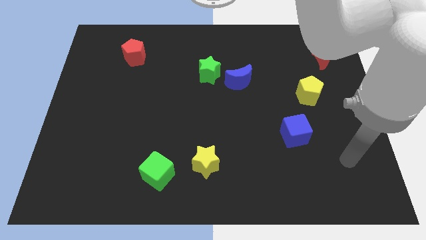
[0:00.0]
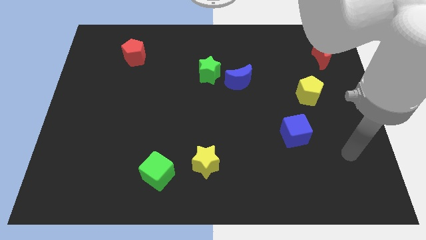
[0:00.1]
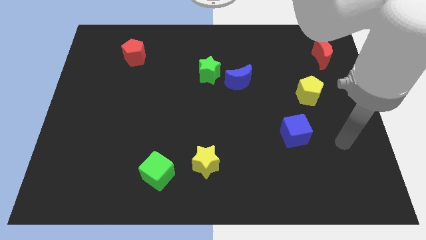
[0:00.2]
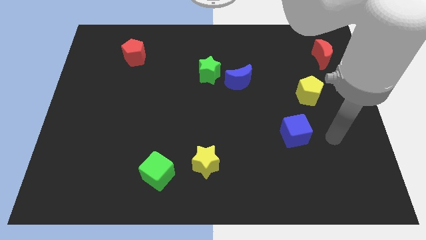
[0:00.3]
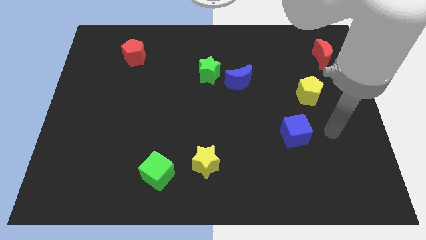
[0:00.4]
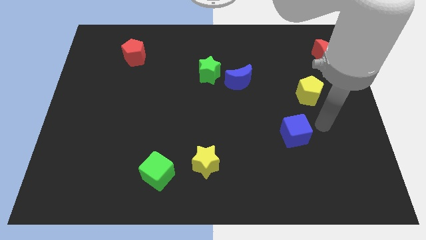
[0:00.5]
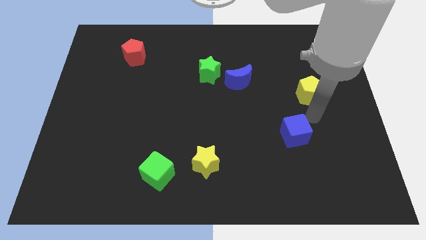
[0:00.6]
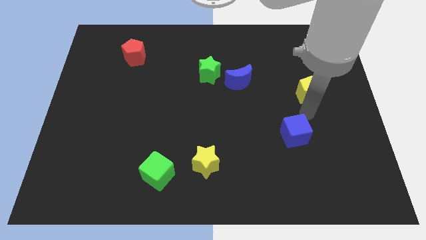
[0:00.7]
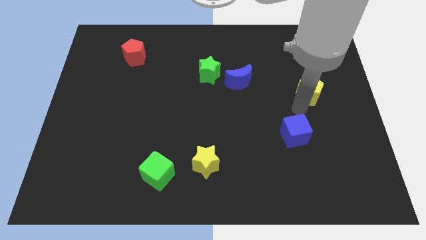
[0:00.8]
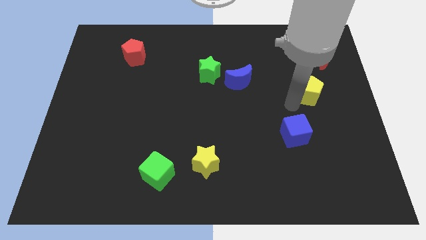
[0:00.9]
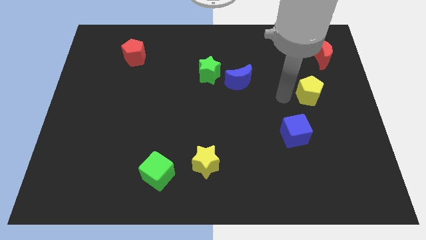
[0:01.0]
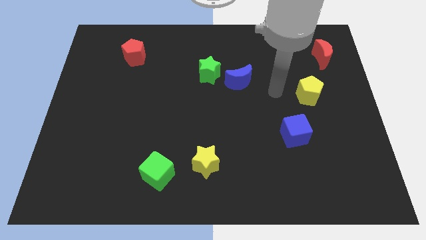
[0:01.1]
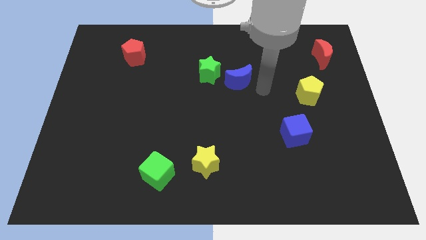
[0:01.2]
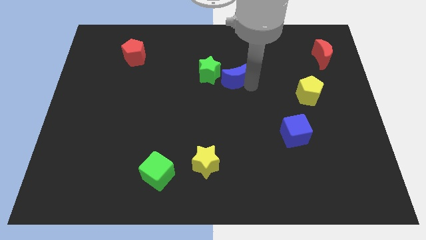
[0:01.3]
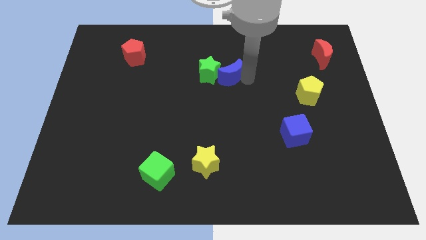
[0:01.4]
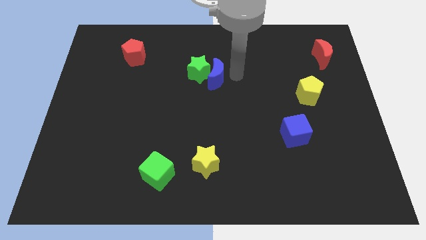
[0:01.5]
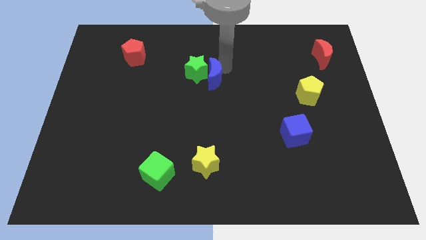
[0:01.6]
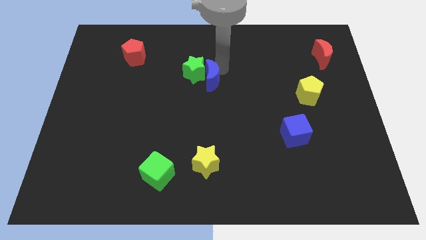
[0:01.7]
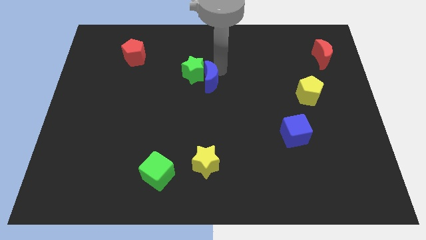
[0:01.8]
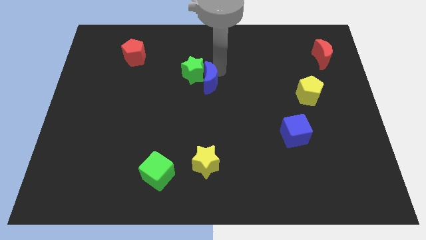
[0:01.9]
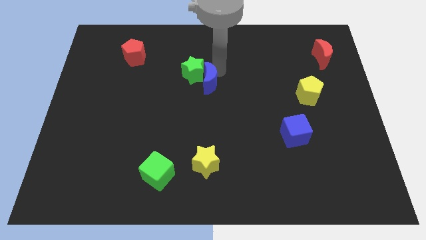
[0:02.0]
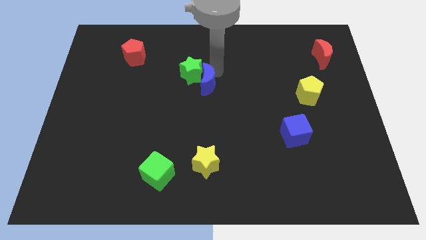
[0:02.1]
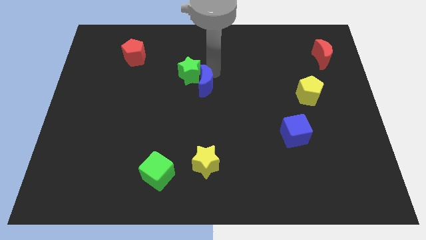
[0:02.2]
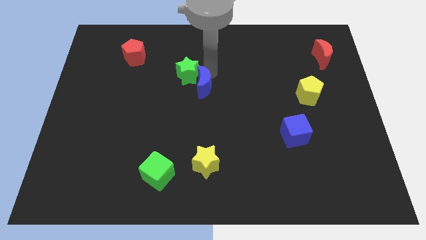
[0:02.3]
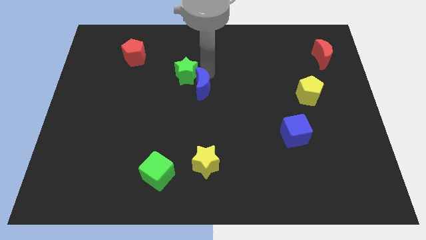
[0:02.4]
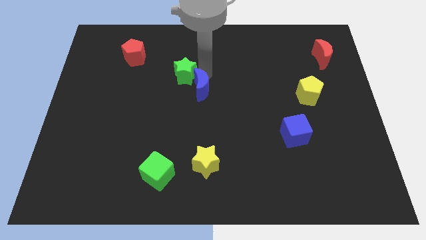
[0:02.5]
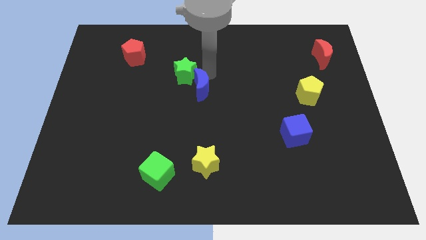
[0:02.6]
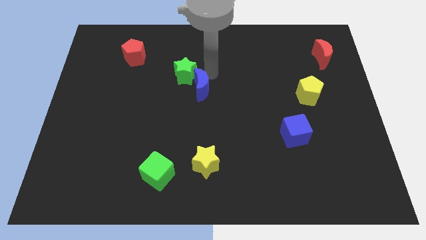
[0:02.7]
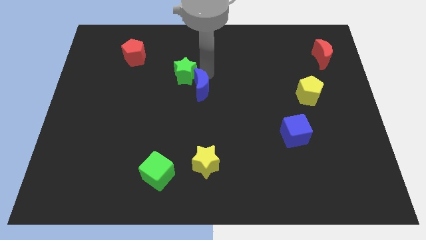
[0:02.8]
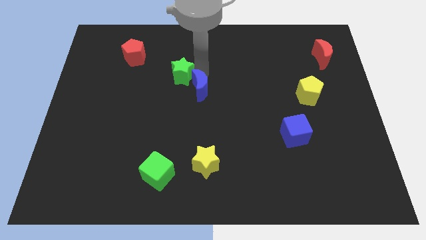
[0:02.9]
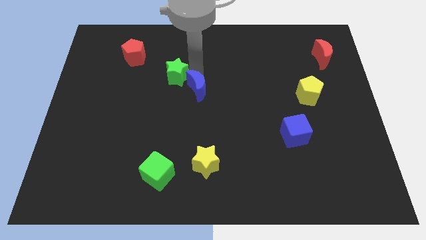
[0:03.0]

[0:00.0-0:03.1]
move the green star a bit left

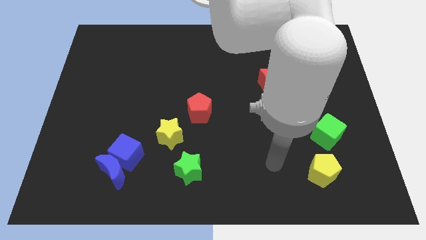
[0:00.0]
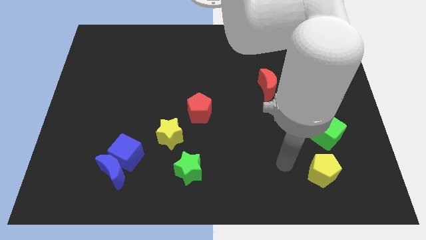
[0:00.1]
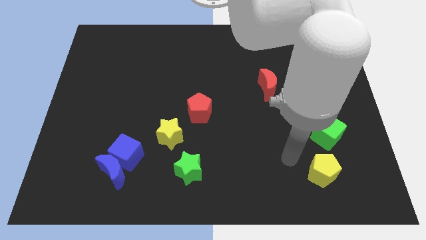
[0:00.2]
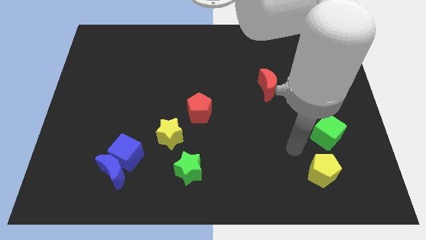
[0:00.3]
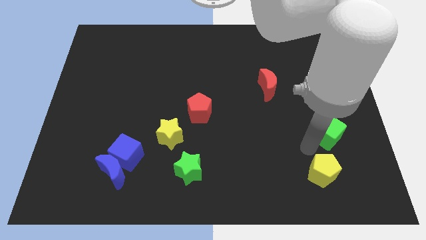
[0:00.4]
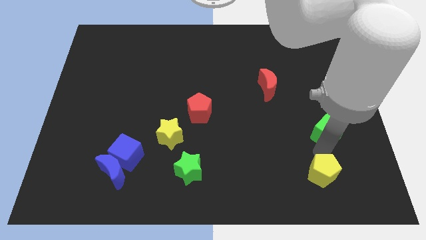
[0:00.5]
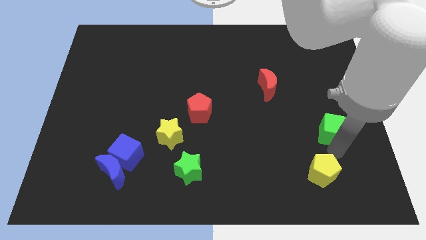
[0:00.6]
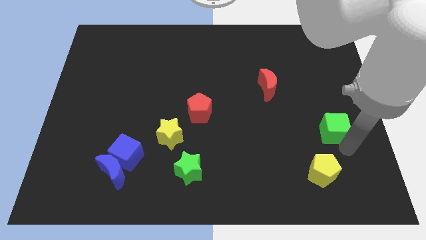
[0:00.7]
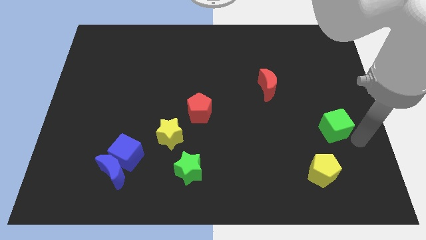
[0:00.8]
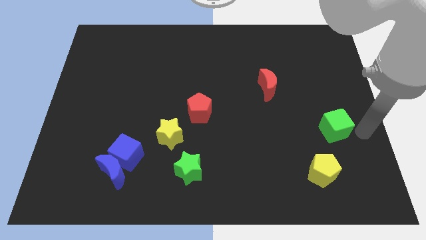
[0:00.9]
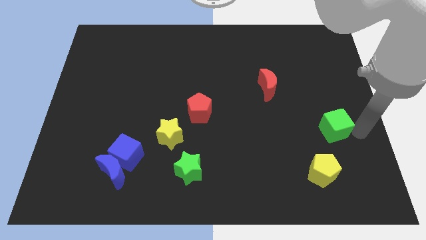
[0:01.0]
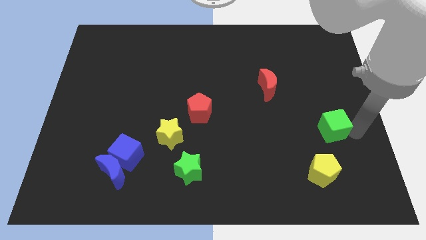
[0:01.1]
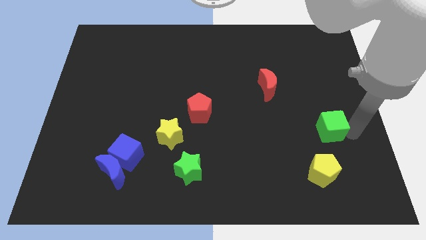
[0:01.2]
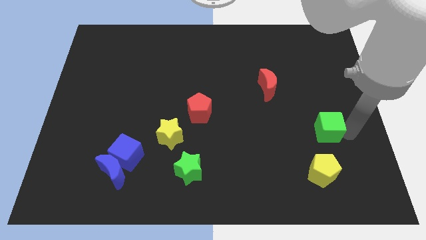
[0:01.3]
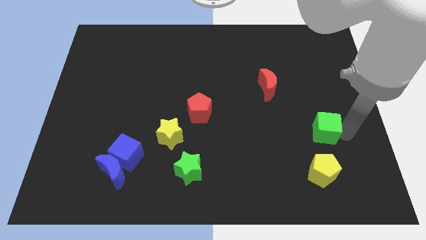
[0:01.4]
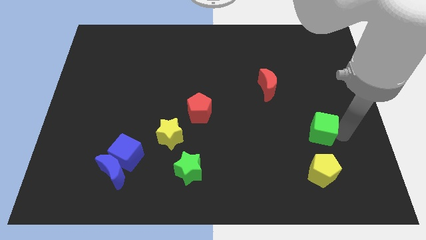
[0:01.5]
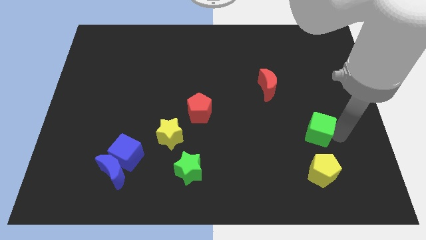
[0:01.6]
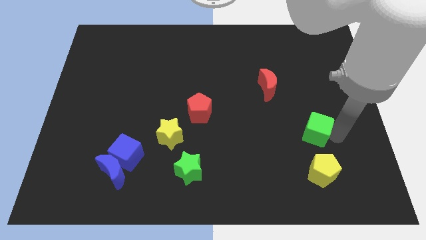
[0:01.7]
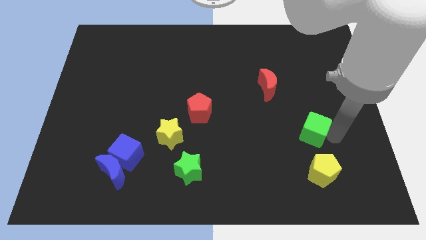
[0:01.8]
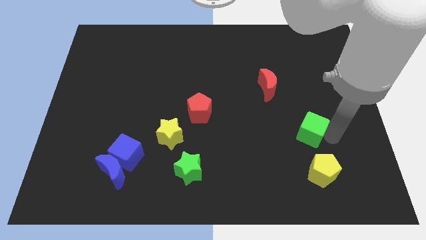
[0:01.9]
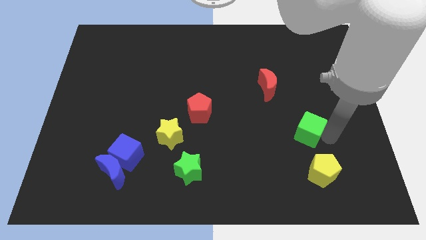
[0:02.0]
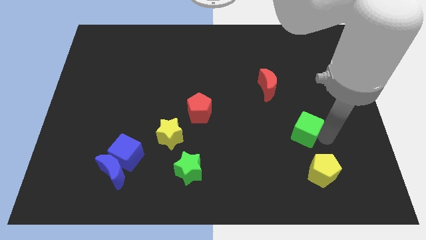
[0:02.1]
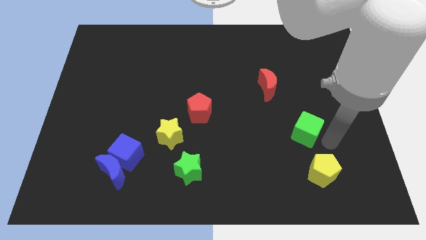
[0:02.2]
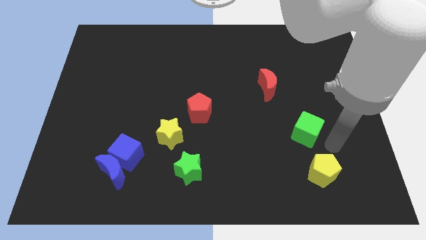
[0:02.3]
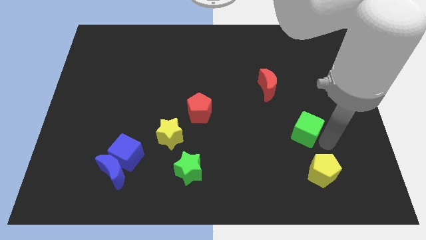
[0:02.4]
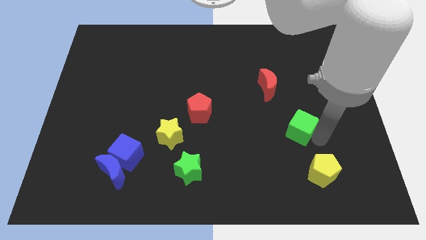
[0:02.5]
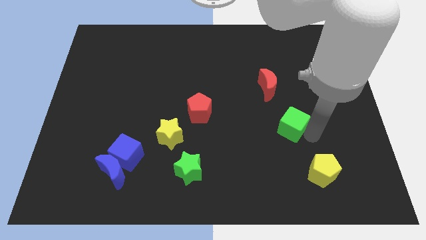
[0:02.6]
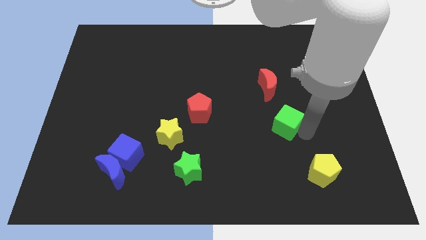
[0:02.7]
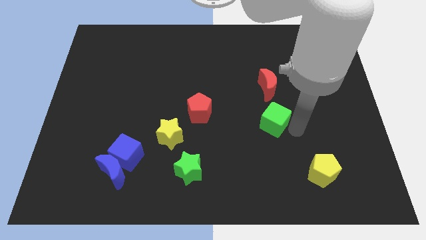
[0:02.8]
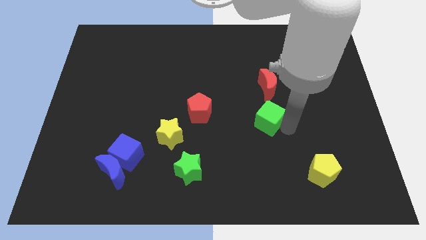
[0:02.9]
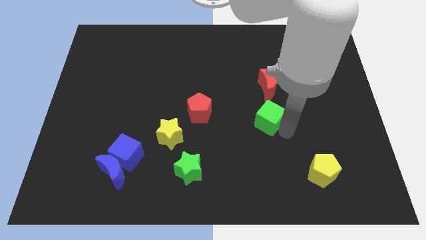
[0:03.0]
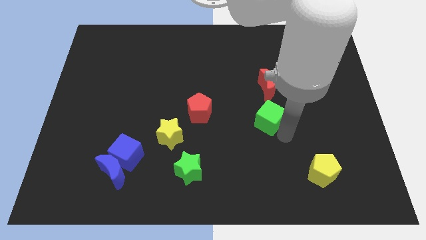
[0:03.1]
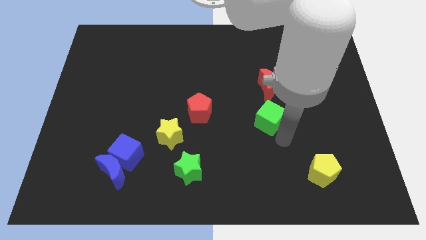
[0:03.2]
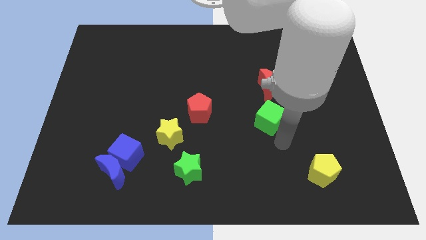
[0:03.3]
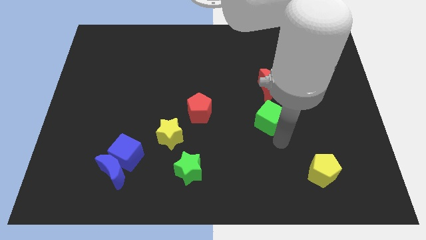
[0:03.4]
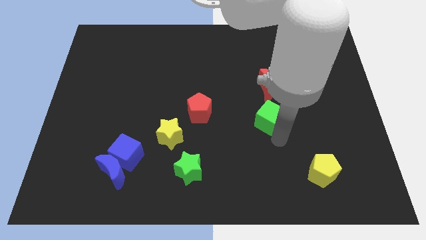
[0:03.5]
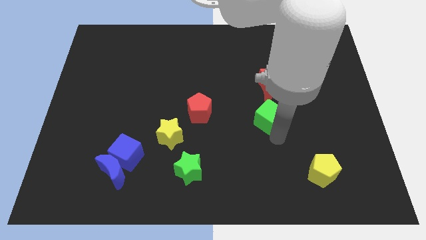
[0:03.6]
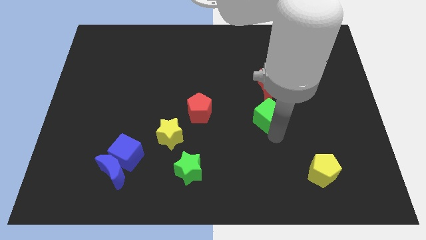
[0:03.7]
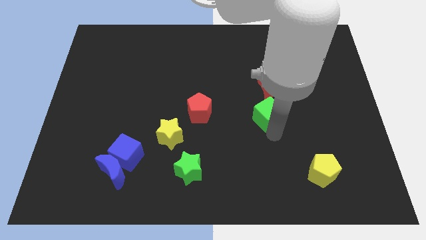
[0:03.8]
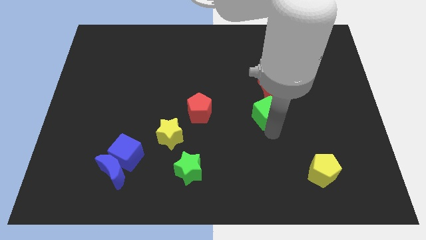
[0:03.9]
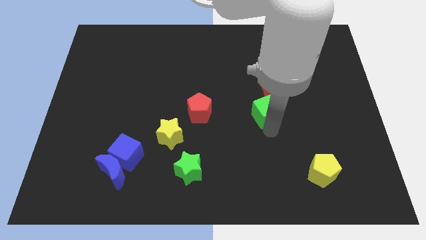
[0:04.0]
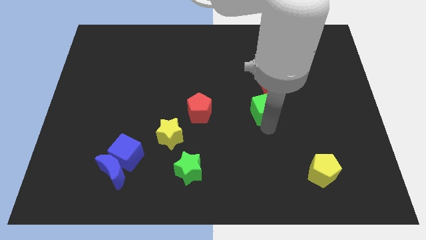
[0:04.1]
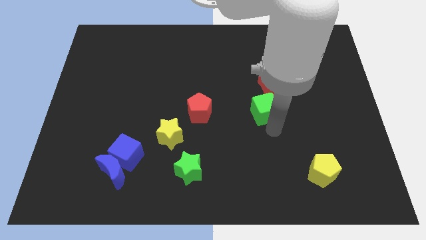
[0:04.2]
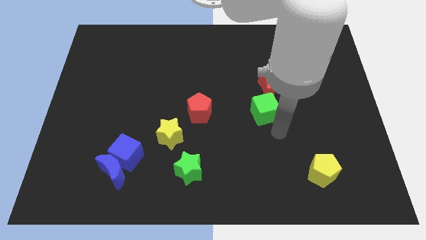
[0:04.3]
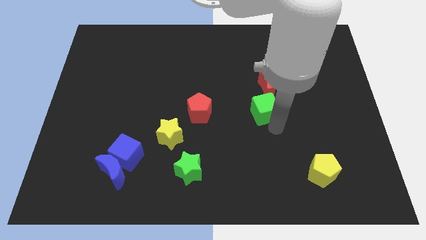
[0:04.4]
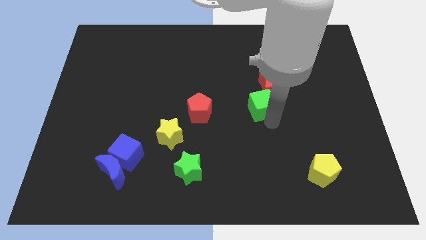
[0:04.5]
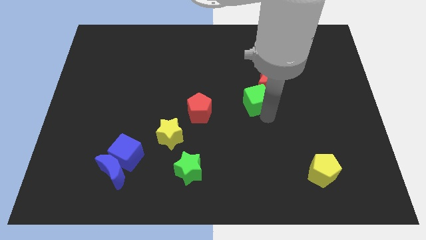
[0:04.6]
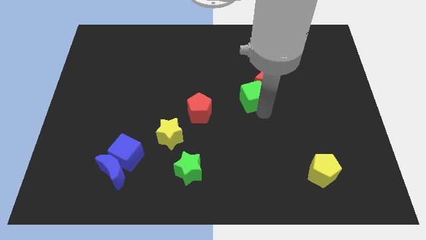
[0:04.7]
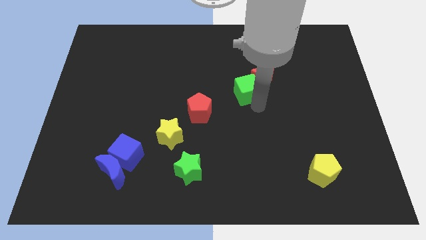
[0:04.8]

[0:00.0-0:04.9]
move the green cube upwards and left diagonally
